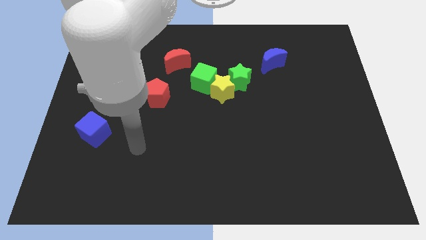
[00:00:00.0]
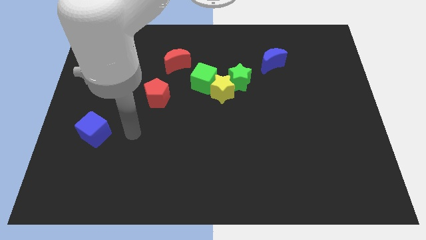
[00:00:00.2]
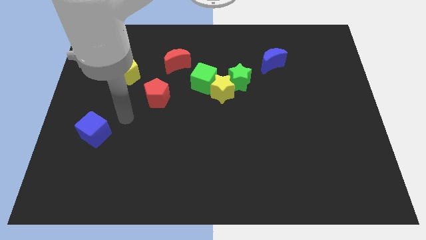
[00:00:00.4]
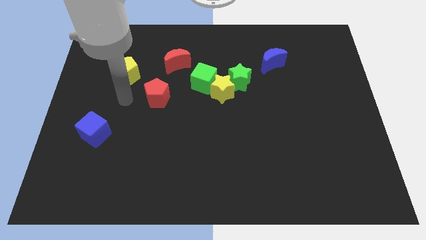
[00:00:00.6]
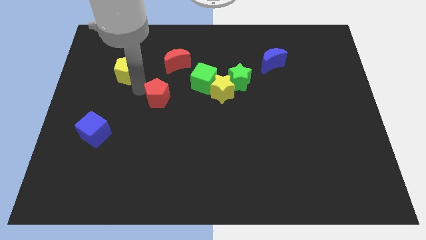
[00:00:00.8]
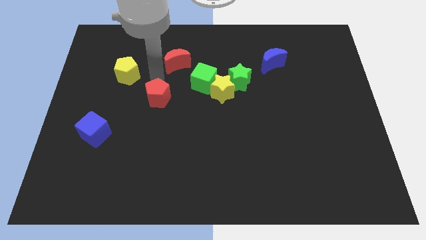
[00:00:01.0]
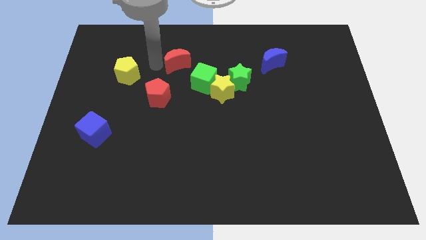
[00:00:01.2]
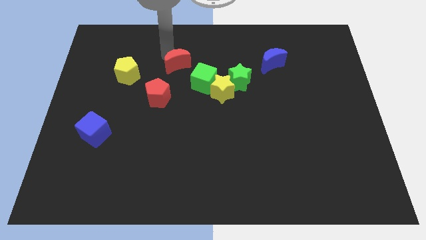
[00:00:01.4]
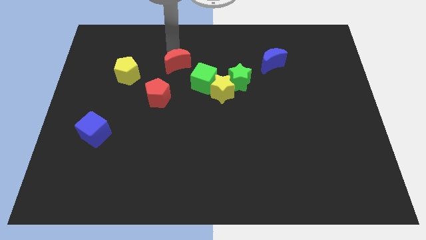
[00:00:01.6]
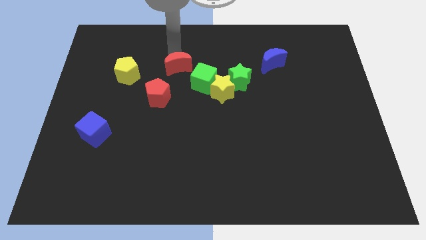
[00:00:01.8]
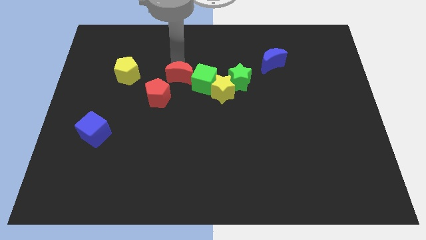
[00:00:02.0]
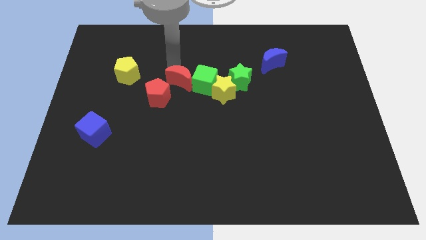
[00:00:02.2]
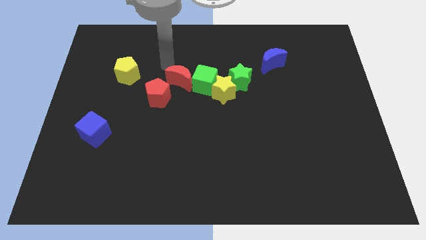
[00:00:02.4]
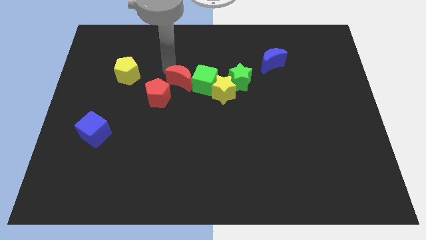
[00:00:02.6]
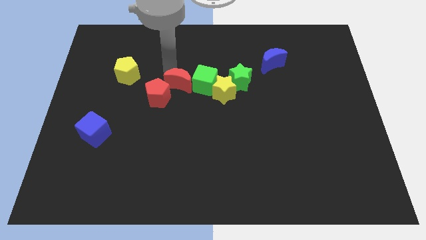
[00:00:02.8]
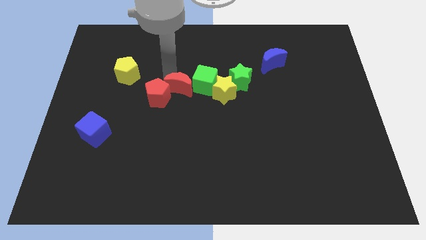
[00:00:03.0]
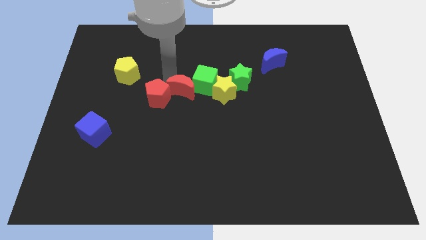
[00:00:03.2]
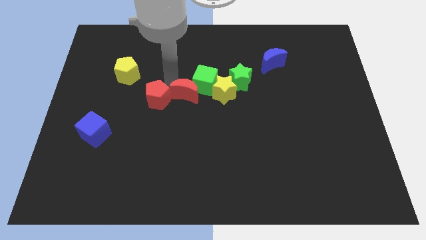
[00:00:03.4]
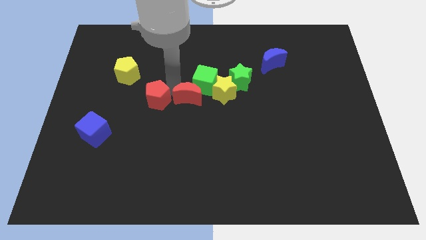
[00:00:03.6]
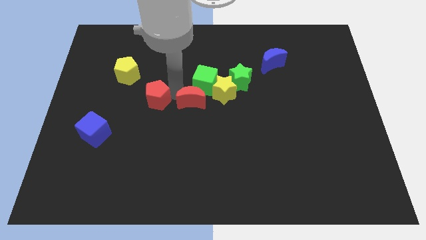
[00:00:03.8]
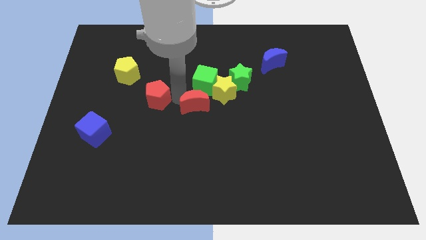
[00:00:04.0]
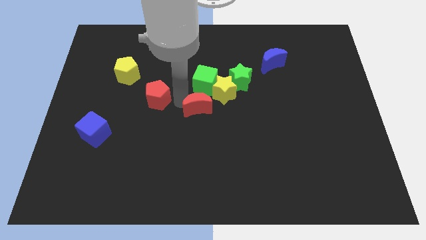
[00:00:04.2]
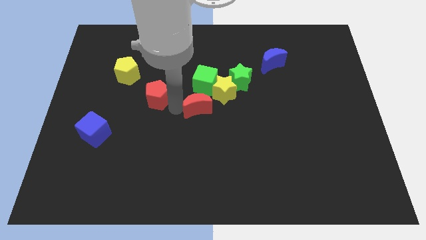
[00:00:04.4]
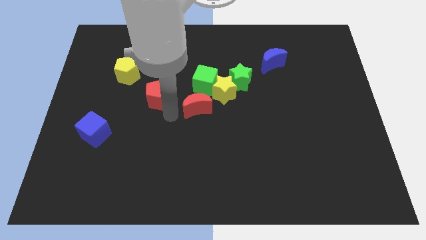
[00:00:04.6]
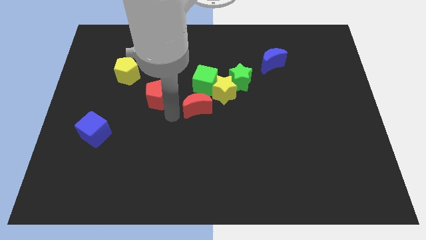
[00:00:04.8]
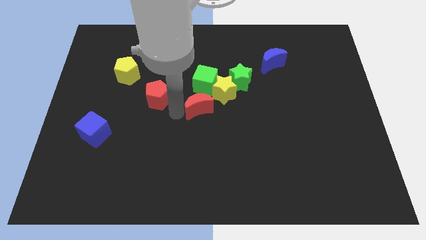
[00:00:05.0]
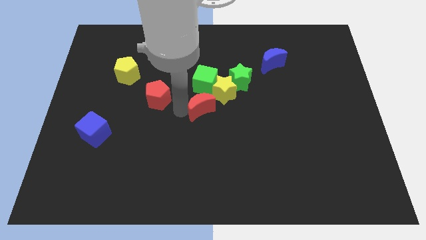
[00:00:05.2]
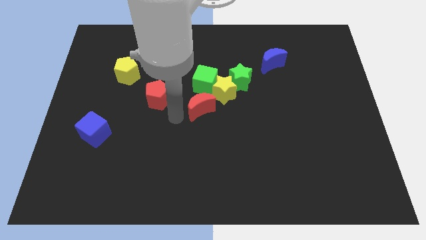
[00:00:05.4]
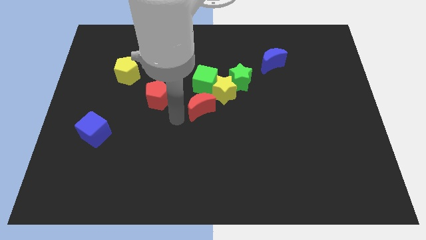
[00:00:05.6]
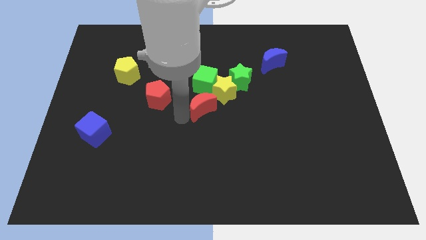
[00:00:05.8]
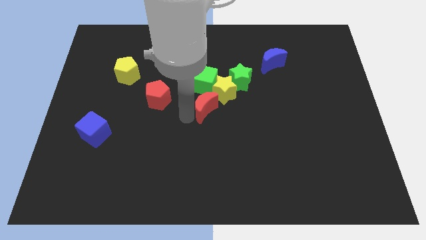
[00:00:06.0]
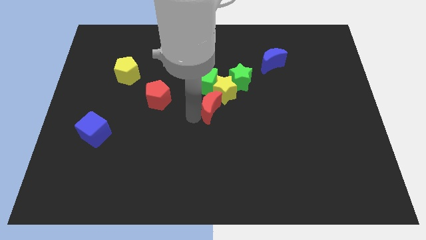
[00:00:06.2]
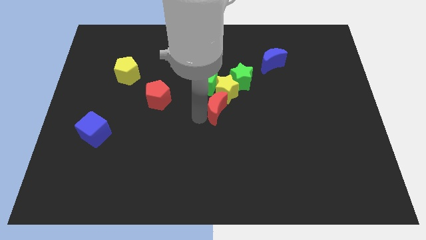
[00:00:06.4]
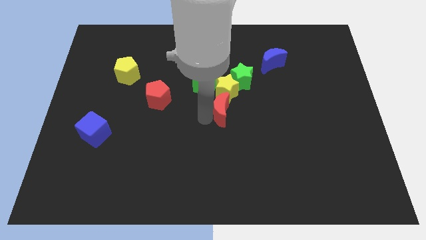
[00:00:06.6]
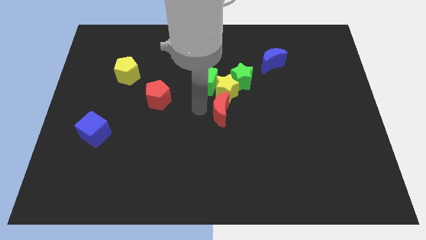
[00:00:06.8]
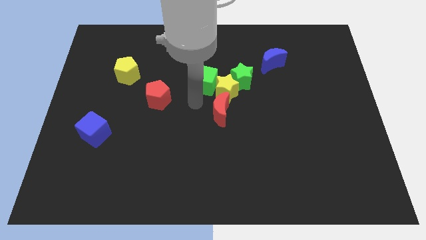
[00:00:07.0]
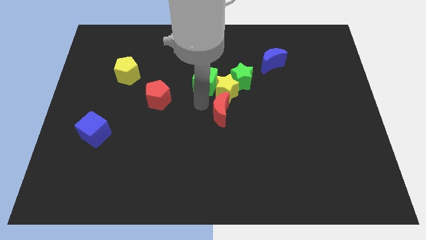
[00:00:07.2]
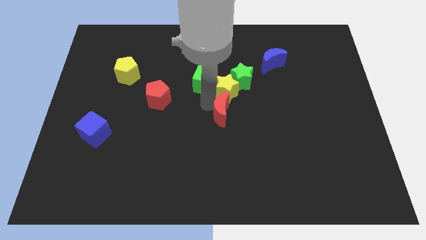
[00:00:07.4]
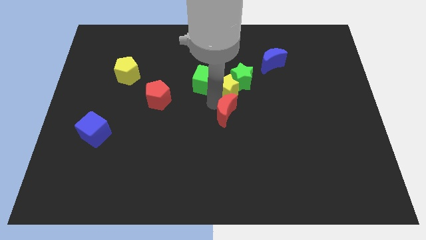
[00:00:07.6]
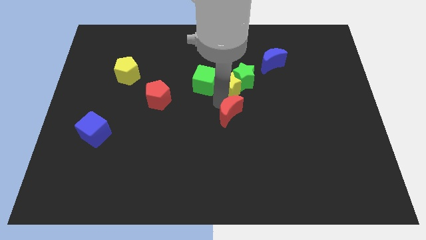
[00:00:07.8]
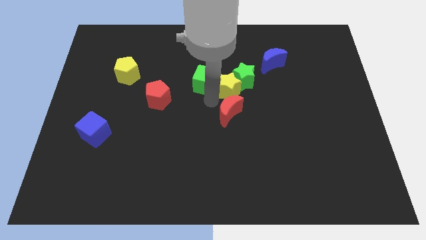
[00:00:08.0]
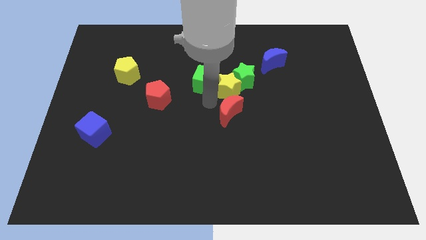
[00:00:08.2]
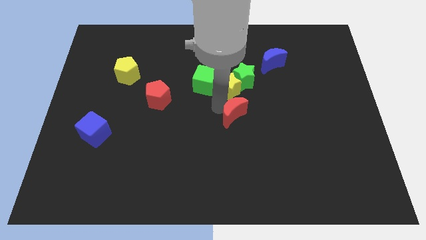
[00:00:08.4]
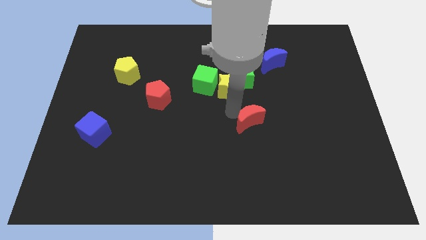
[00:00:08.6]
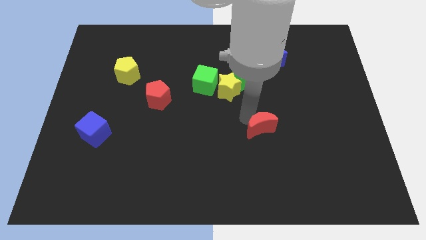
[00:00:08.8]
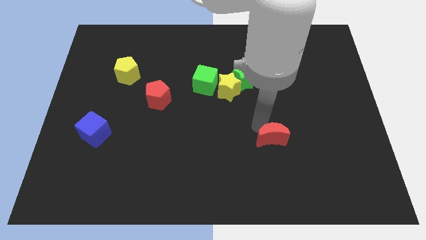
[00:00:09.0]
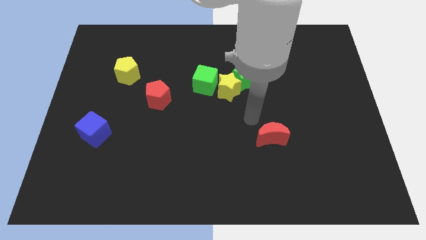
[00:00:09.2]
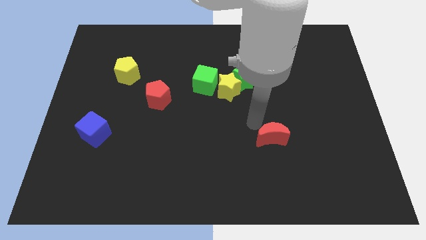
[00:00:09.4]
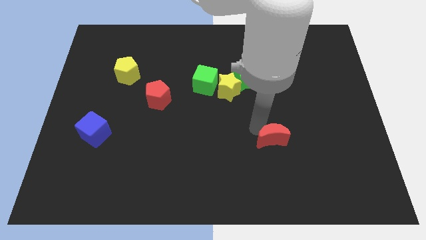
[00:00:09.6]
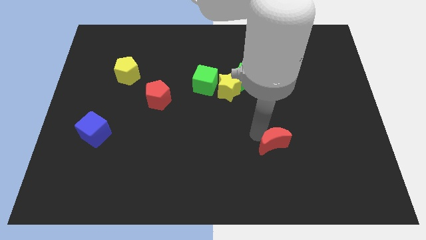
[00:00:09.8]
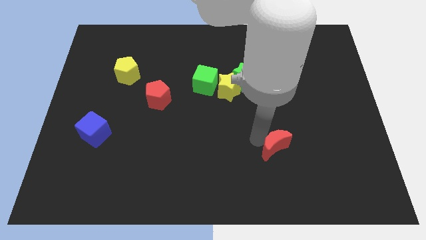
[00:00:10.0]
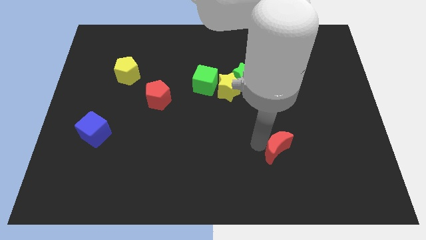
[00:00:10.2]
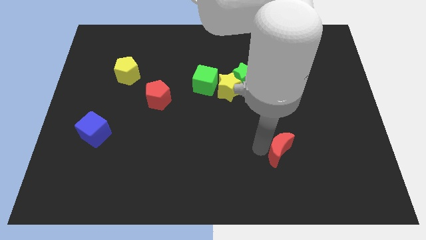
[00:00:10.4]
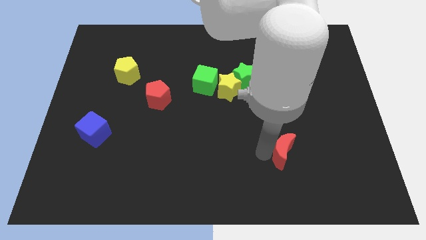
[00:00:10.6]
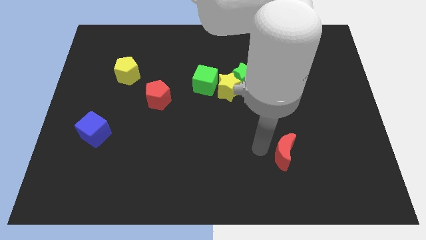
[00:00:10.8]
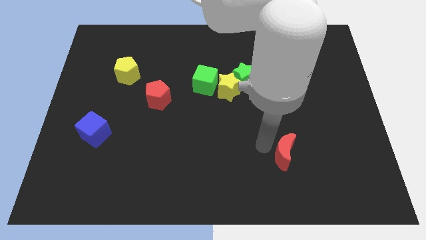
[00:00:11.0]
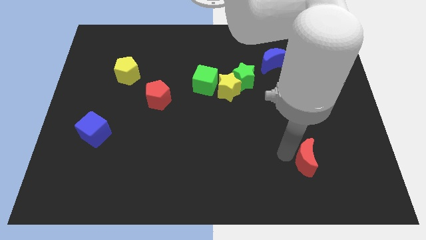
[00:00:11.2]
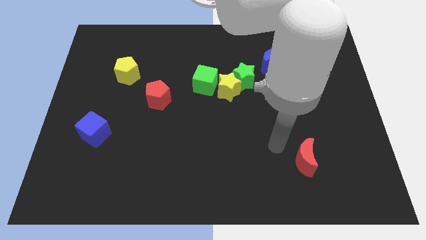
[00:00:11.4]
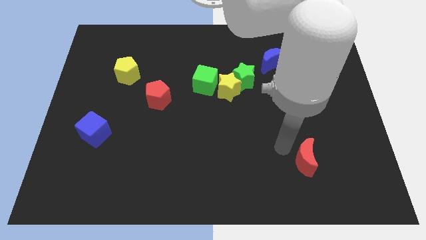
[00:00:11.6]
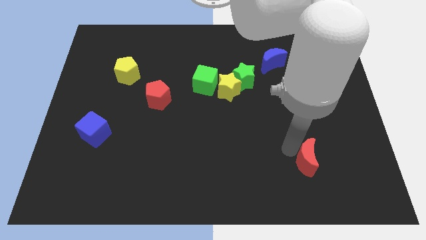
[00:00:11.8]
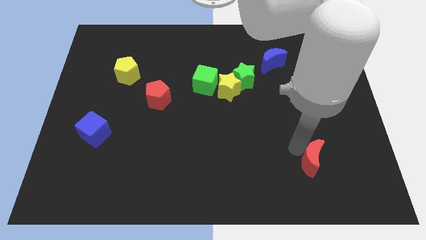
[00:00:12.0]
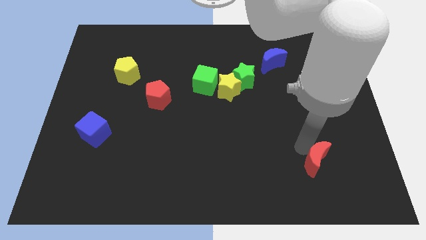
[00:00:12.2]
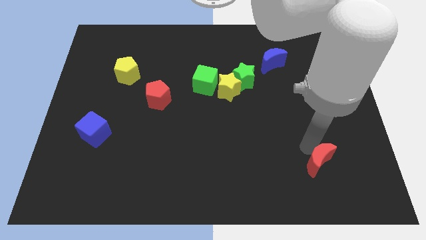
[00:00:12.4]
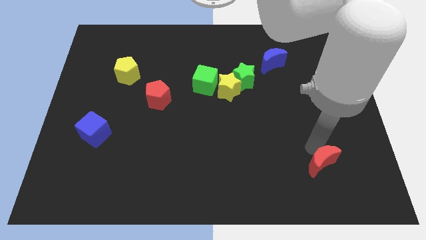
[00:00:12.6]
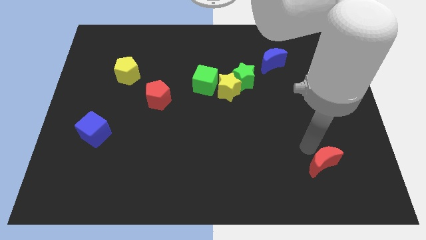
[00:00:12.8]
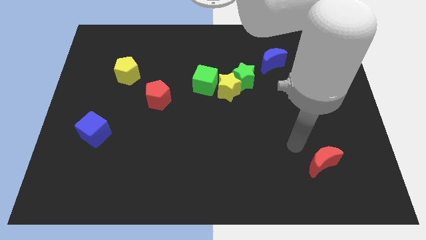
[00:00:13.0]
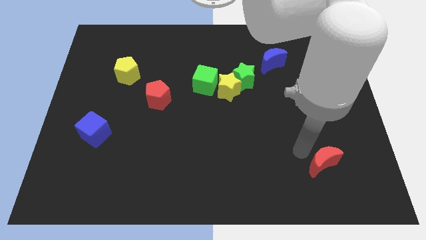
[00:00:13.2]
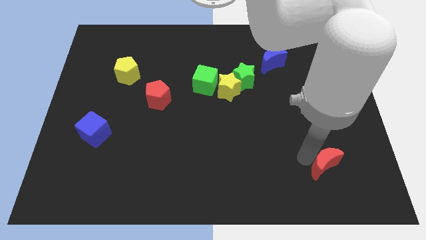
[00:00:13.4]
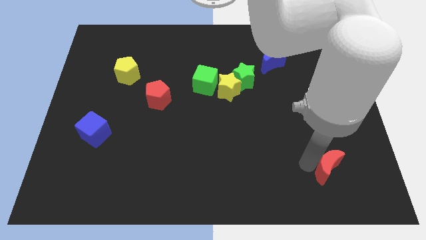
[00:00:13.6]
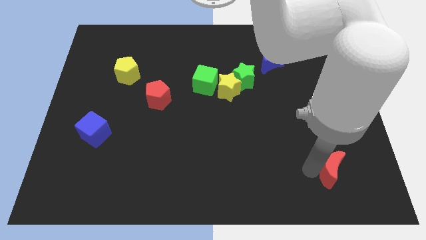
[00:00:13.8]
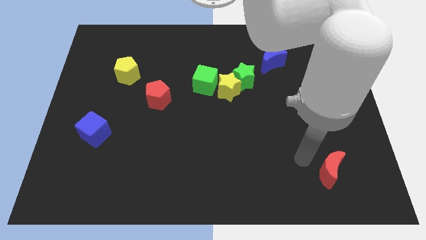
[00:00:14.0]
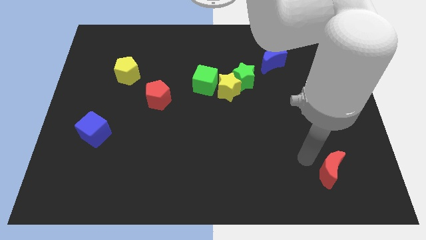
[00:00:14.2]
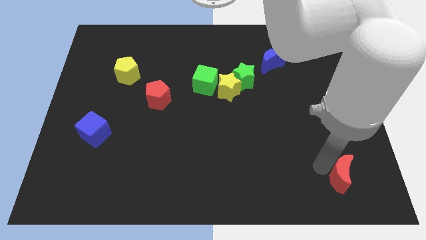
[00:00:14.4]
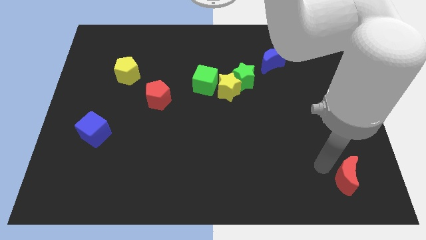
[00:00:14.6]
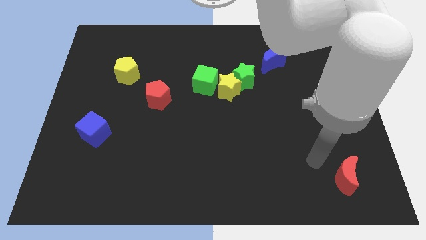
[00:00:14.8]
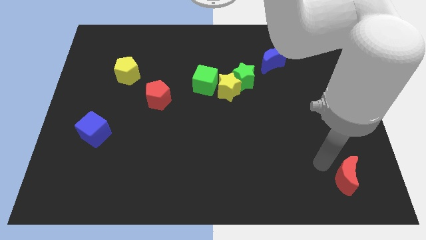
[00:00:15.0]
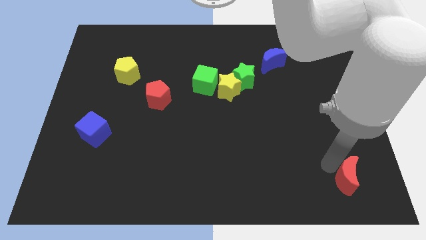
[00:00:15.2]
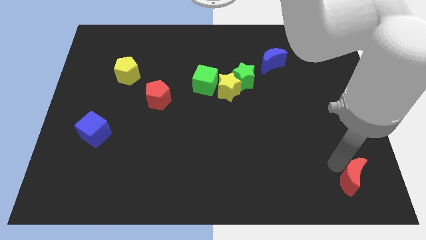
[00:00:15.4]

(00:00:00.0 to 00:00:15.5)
put the red moon to the bottom right of the board
